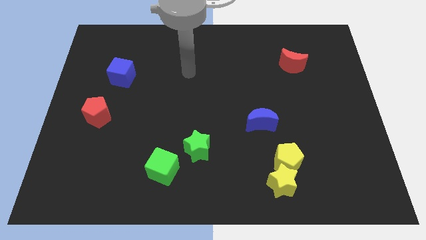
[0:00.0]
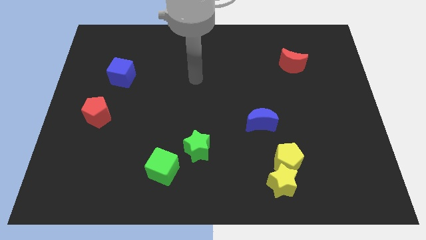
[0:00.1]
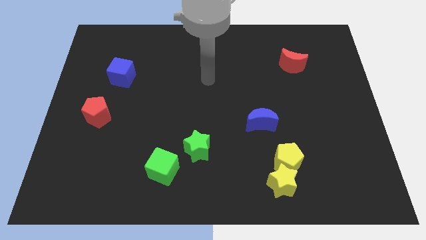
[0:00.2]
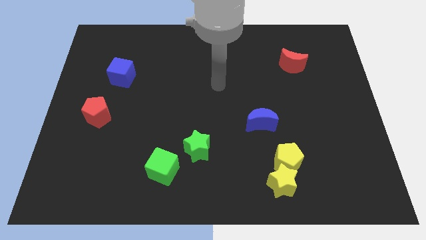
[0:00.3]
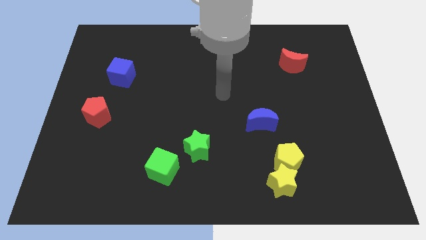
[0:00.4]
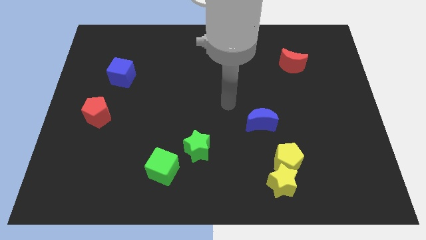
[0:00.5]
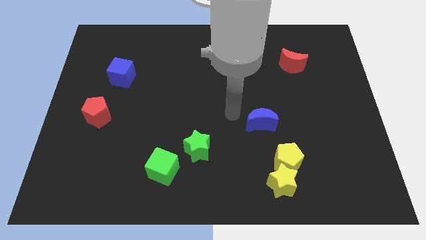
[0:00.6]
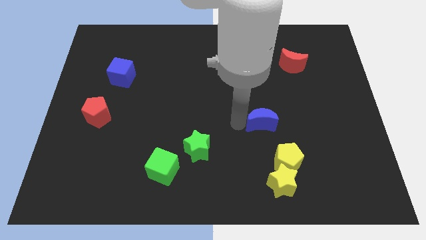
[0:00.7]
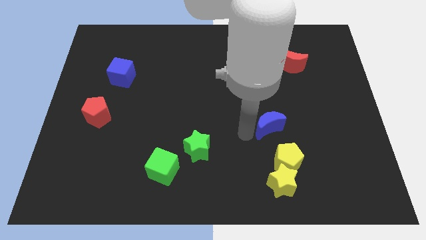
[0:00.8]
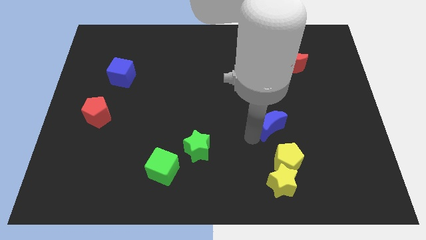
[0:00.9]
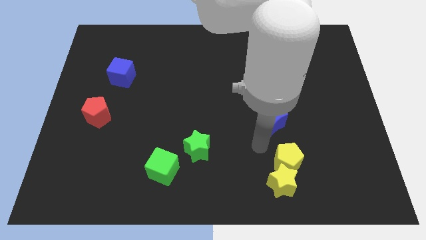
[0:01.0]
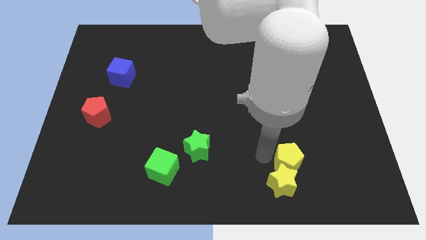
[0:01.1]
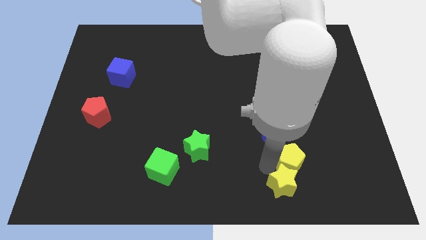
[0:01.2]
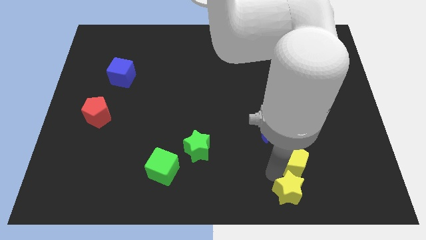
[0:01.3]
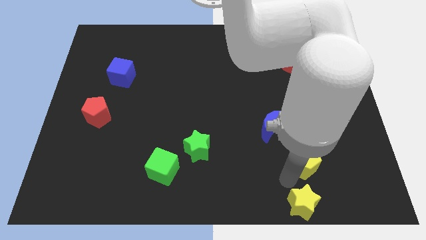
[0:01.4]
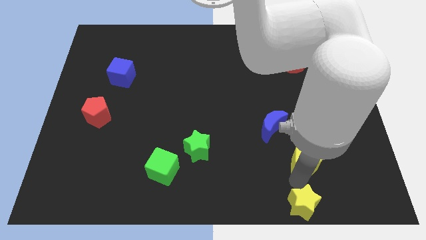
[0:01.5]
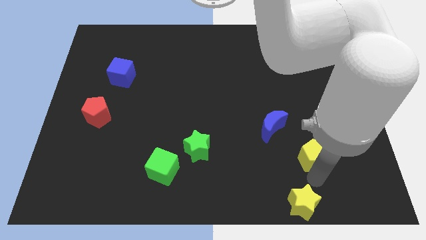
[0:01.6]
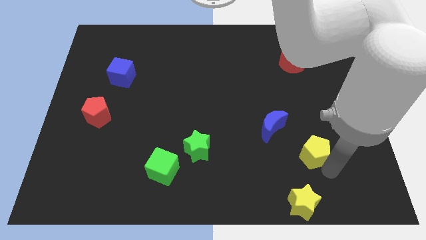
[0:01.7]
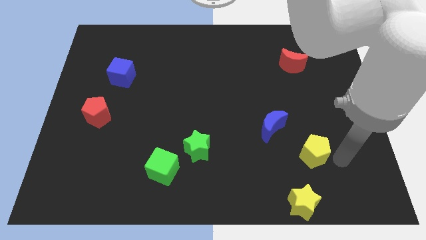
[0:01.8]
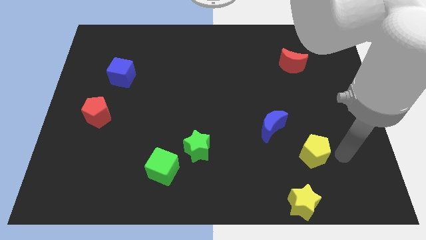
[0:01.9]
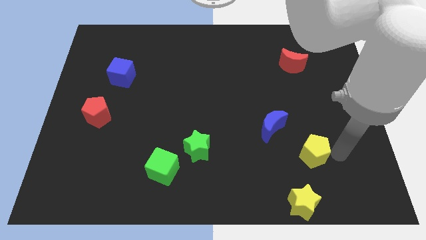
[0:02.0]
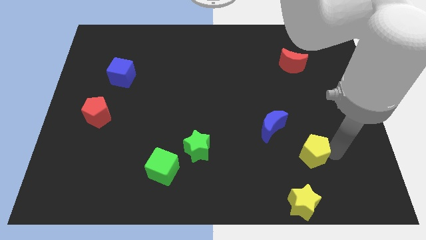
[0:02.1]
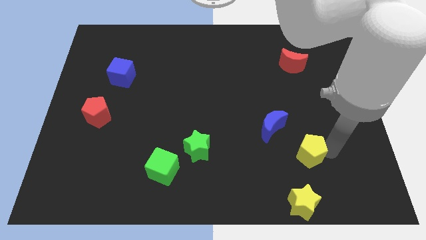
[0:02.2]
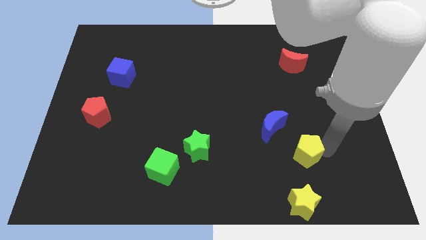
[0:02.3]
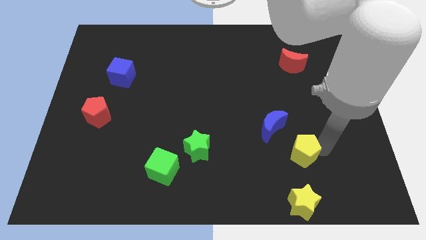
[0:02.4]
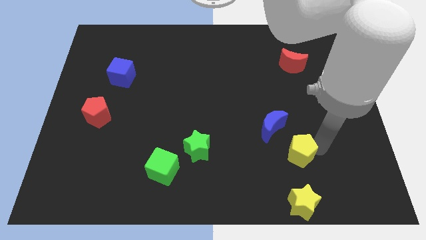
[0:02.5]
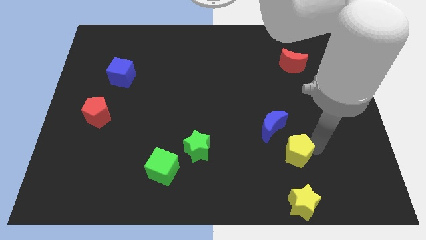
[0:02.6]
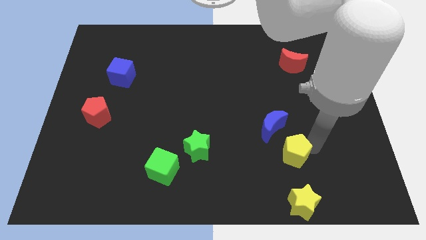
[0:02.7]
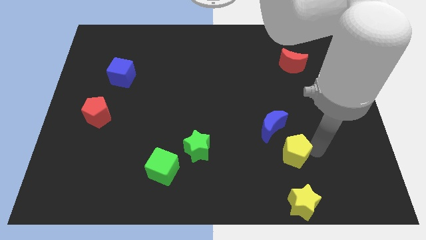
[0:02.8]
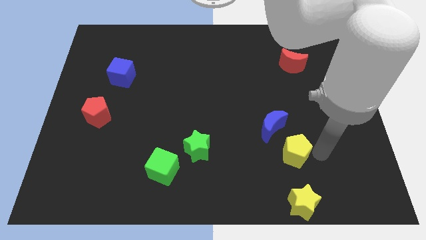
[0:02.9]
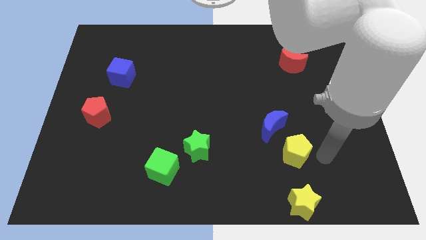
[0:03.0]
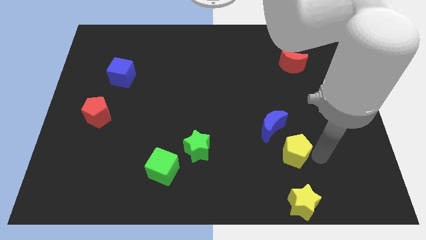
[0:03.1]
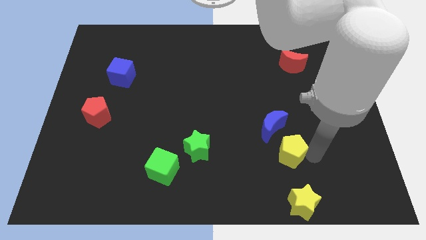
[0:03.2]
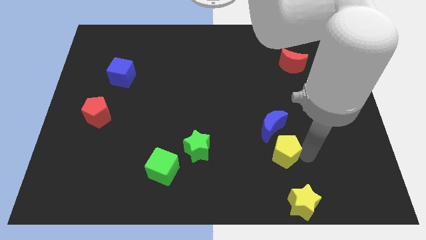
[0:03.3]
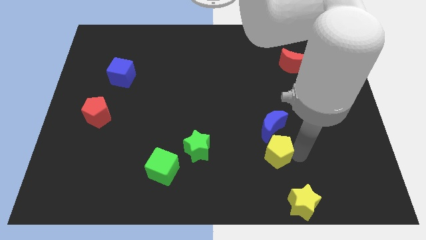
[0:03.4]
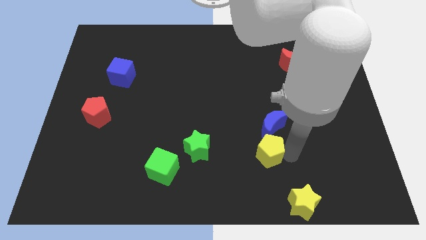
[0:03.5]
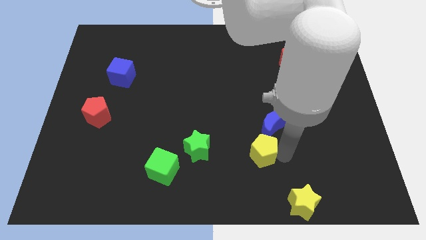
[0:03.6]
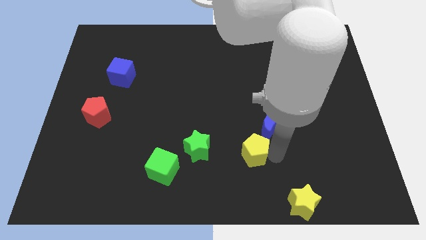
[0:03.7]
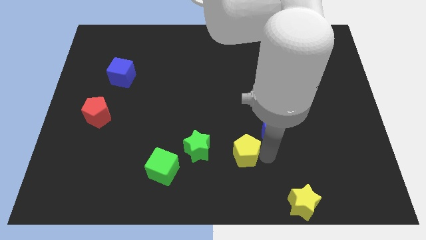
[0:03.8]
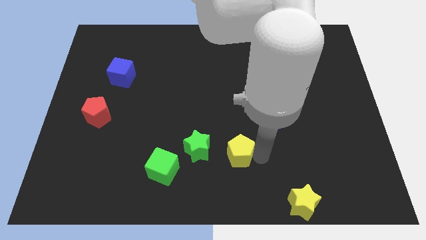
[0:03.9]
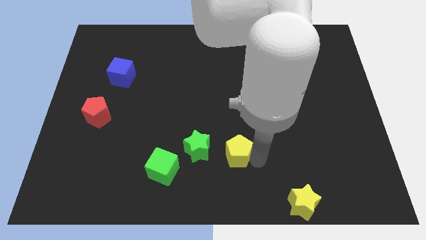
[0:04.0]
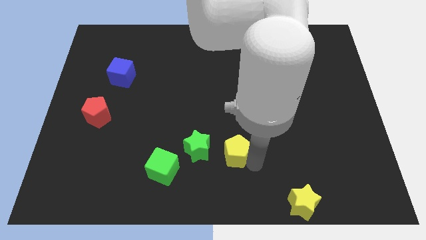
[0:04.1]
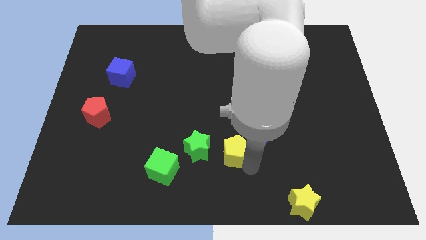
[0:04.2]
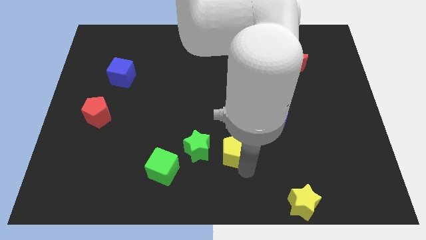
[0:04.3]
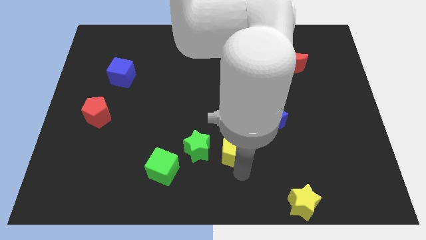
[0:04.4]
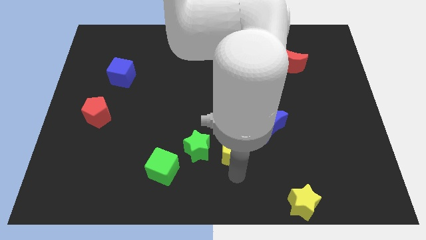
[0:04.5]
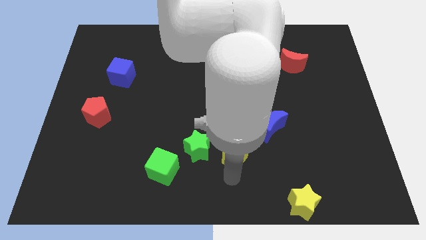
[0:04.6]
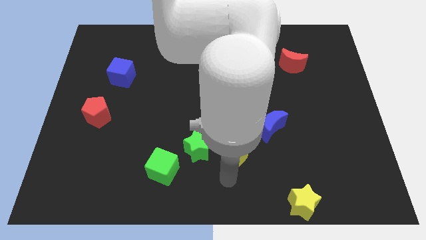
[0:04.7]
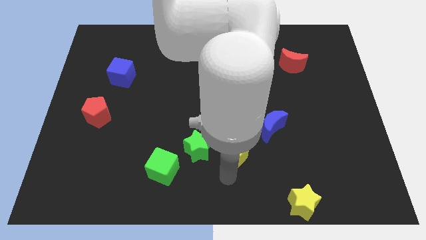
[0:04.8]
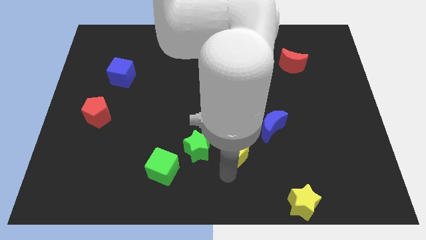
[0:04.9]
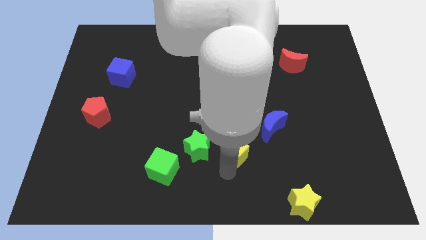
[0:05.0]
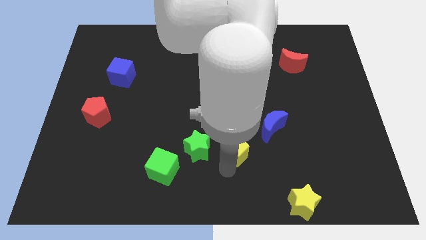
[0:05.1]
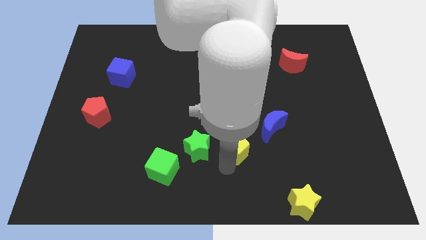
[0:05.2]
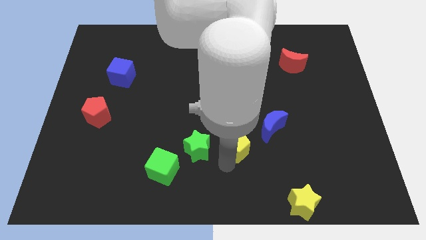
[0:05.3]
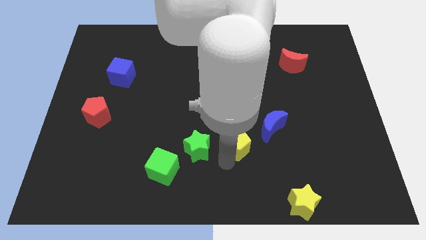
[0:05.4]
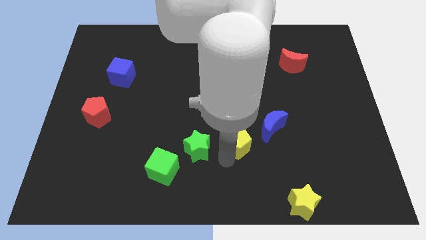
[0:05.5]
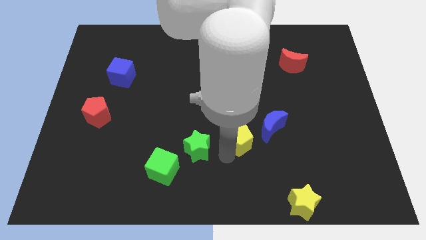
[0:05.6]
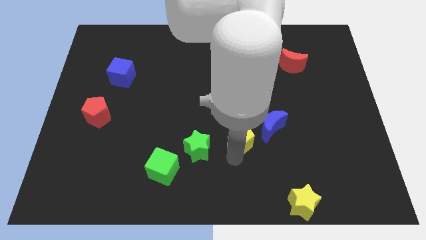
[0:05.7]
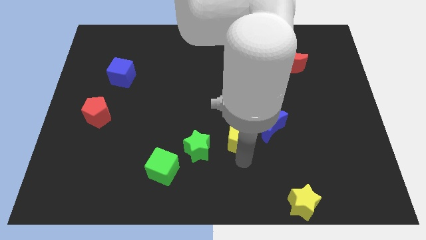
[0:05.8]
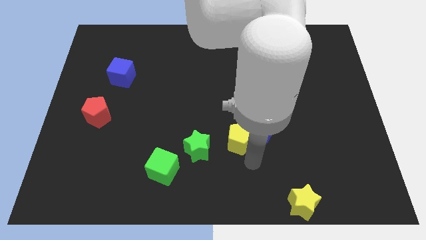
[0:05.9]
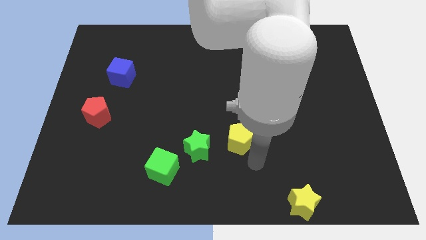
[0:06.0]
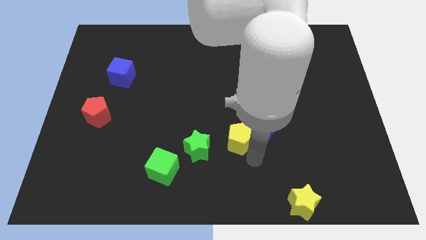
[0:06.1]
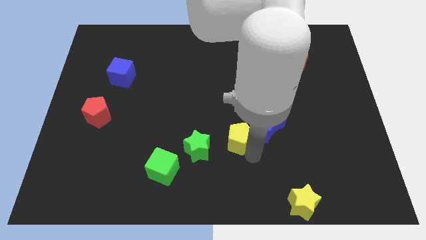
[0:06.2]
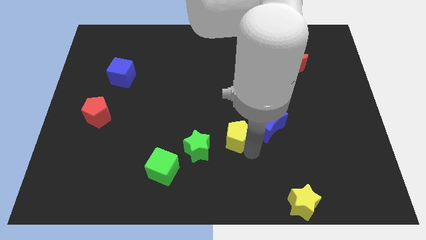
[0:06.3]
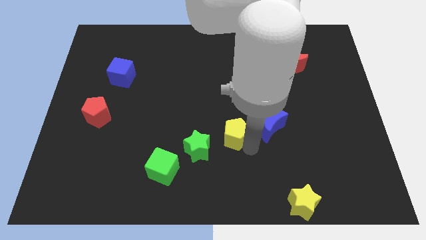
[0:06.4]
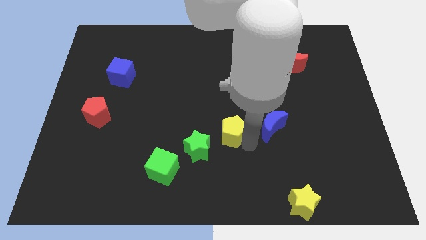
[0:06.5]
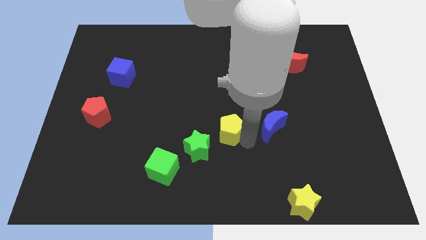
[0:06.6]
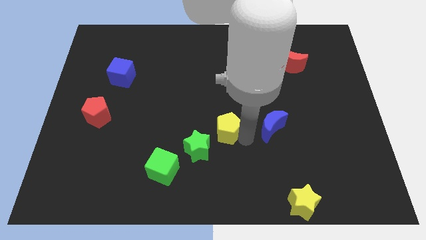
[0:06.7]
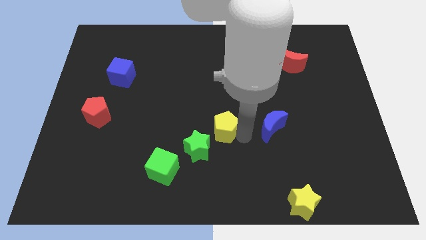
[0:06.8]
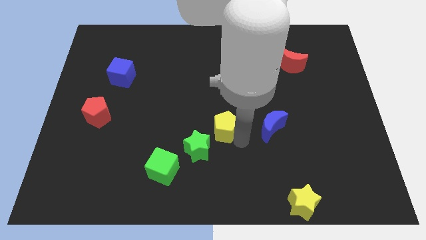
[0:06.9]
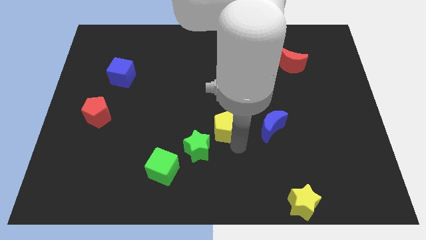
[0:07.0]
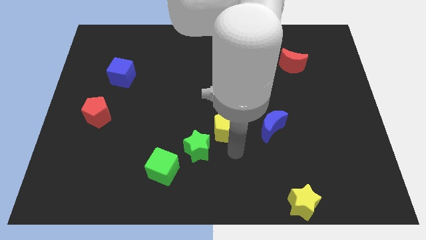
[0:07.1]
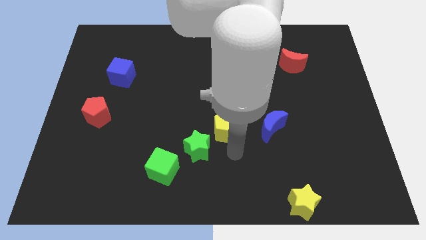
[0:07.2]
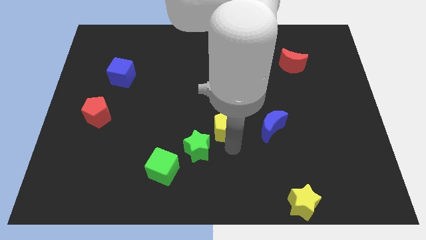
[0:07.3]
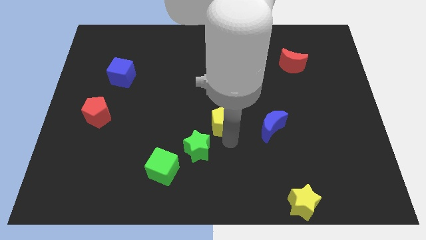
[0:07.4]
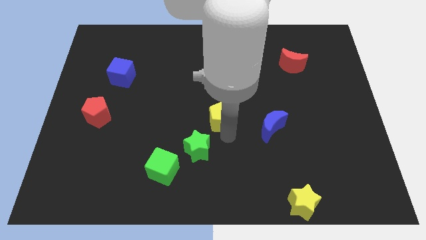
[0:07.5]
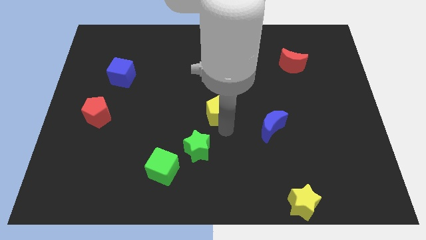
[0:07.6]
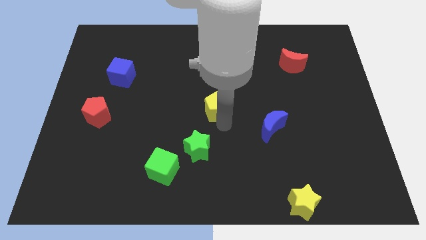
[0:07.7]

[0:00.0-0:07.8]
slide the yellow pentagon up and to the left

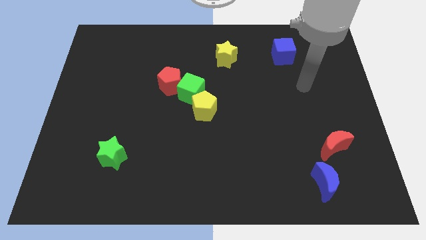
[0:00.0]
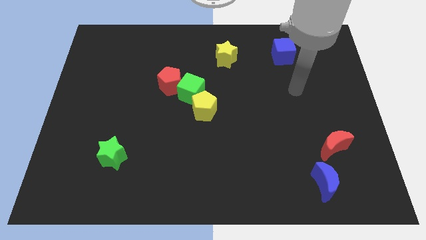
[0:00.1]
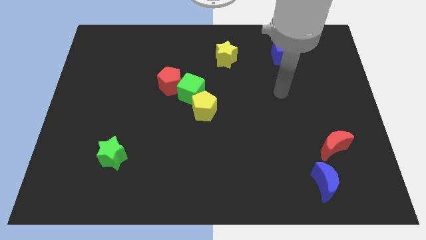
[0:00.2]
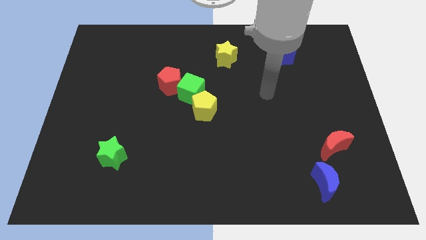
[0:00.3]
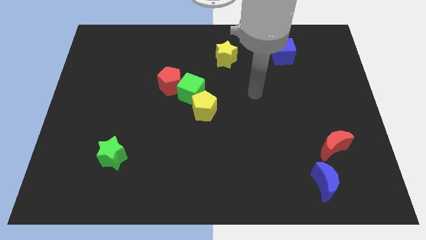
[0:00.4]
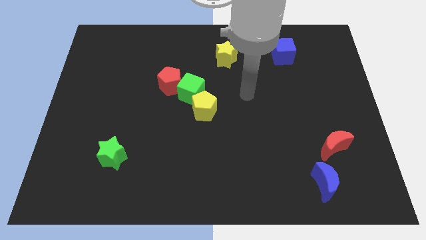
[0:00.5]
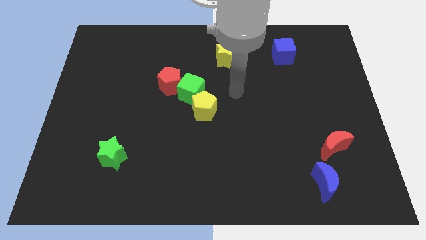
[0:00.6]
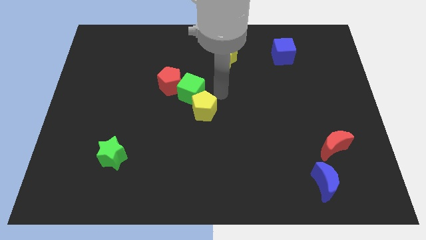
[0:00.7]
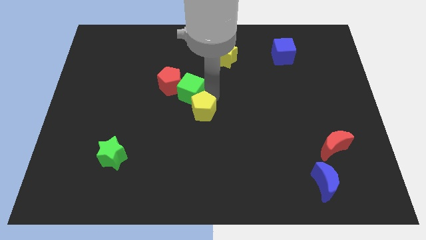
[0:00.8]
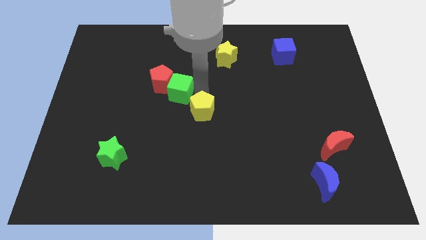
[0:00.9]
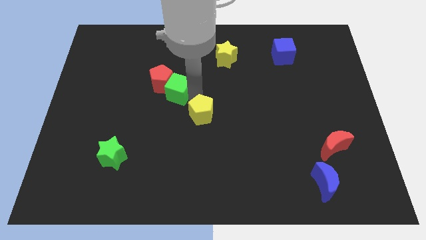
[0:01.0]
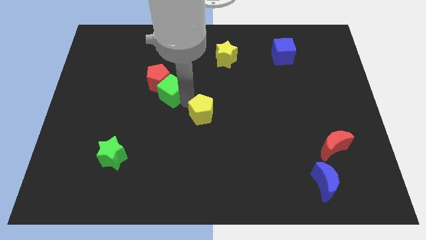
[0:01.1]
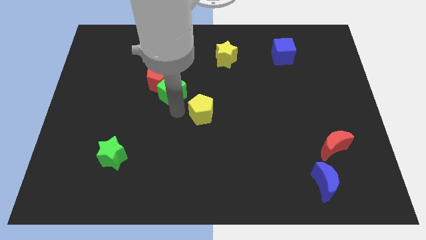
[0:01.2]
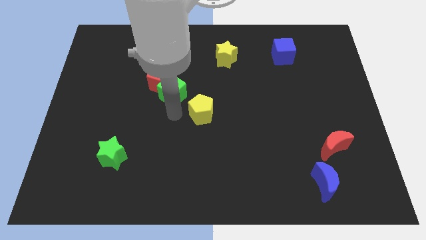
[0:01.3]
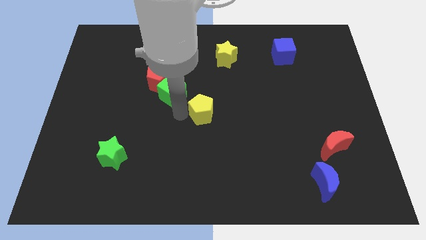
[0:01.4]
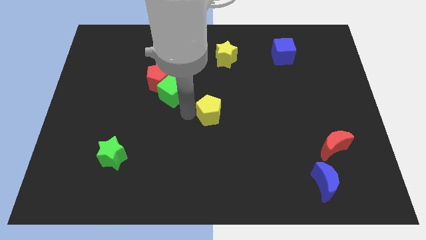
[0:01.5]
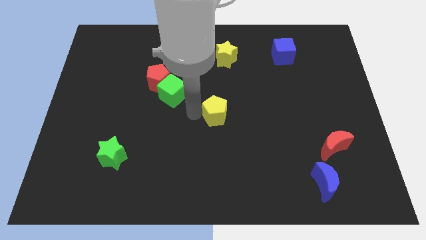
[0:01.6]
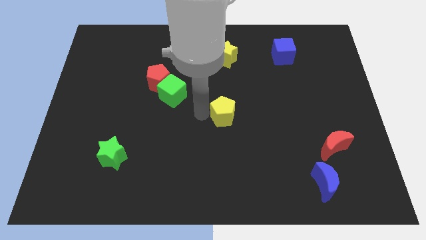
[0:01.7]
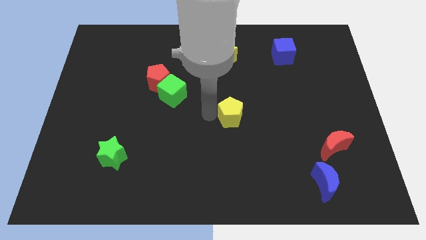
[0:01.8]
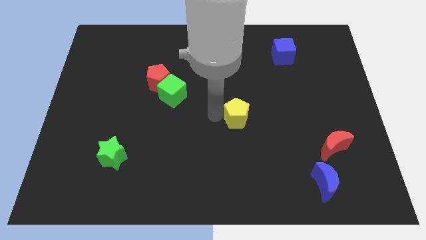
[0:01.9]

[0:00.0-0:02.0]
slightly move the yellow pentagon right
